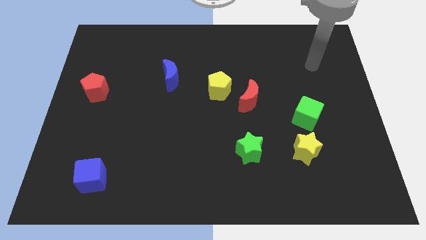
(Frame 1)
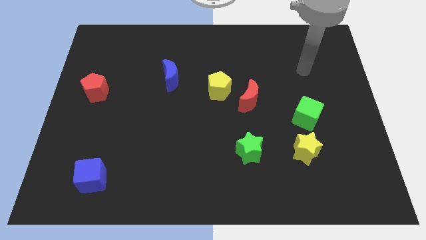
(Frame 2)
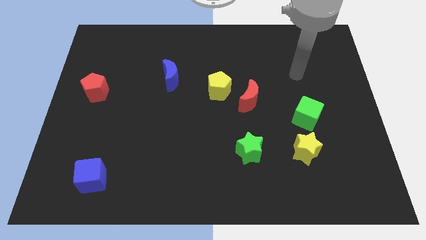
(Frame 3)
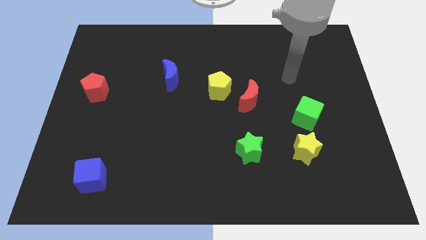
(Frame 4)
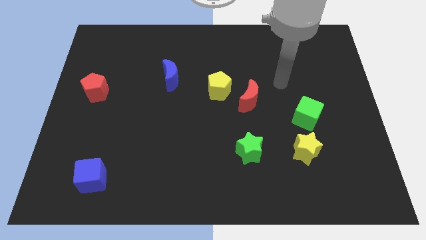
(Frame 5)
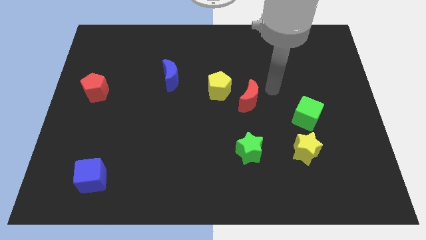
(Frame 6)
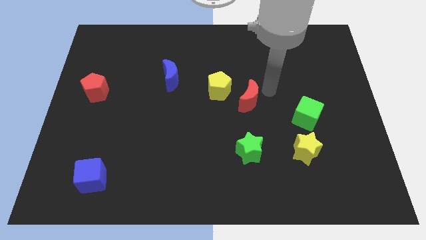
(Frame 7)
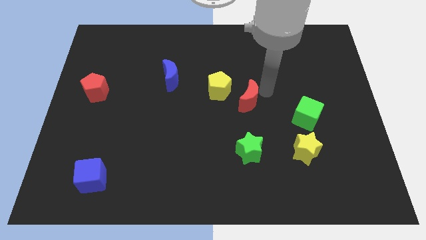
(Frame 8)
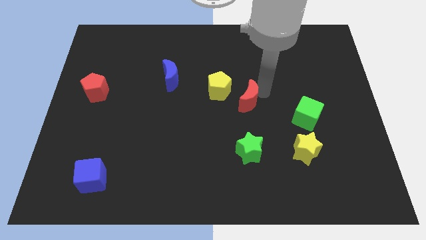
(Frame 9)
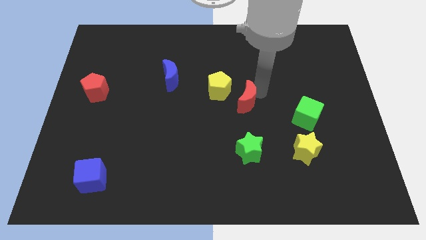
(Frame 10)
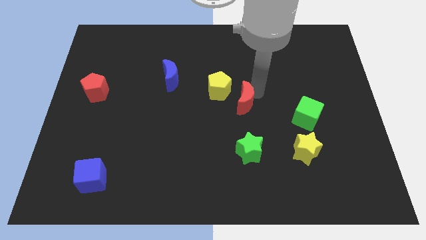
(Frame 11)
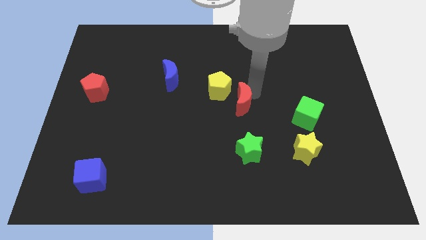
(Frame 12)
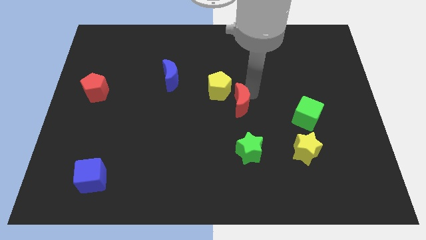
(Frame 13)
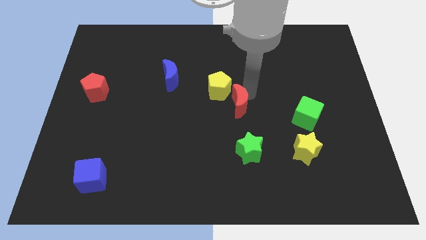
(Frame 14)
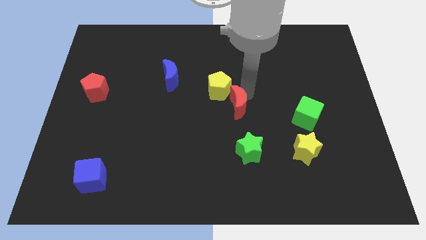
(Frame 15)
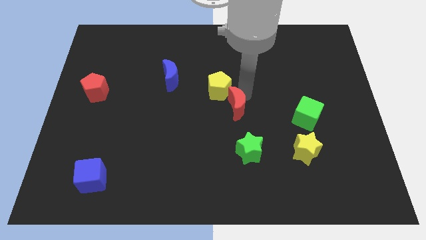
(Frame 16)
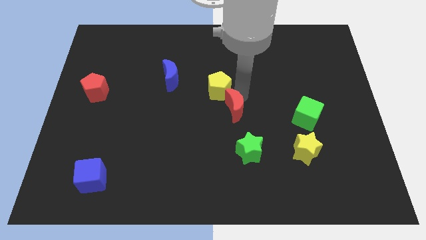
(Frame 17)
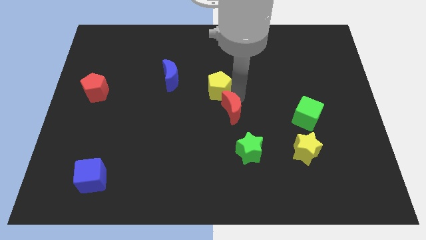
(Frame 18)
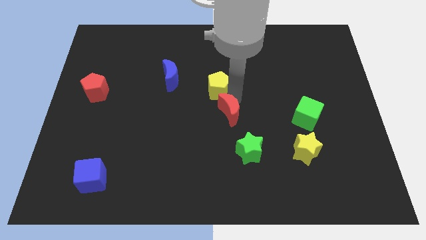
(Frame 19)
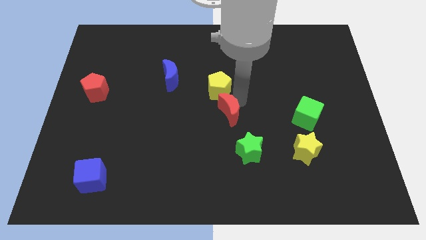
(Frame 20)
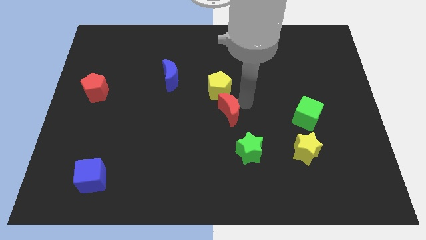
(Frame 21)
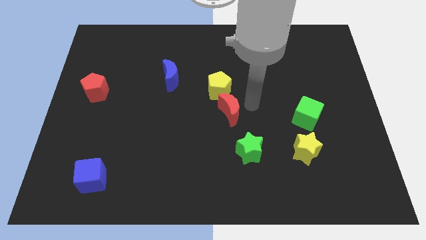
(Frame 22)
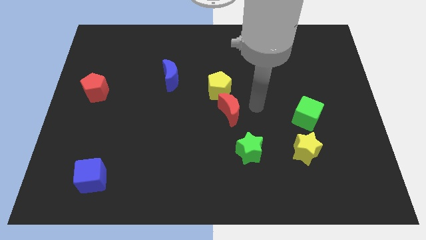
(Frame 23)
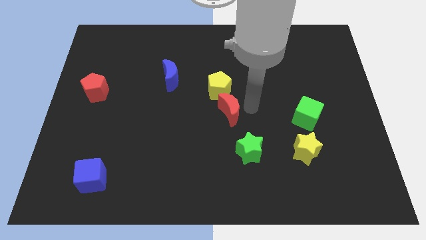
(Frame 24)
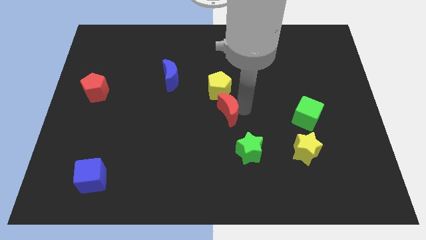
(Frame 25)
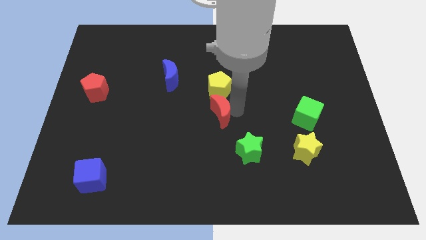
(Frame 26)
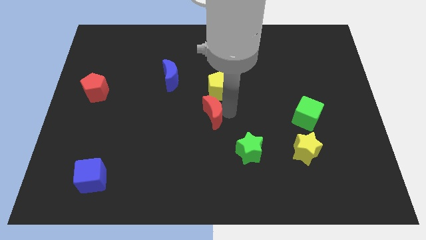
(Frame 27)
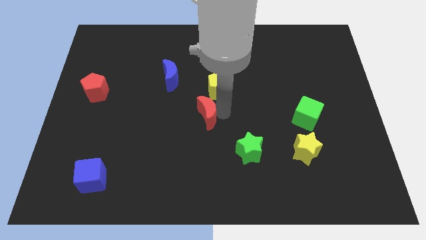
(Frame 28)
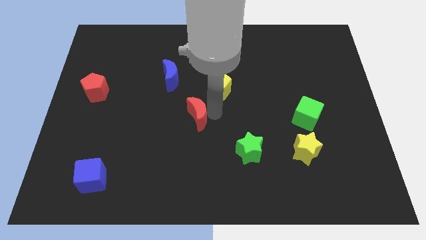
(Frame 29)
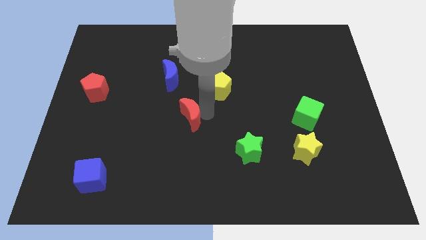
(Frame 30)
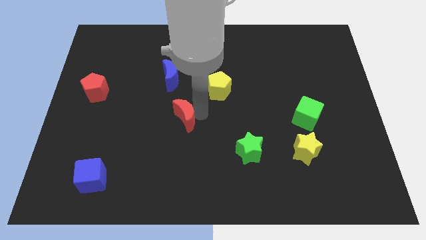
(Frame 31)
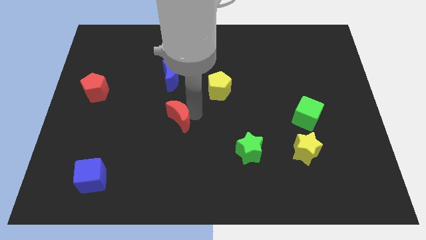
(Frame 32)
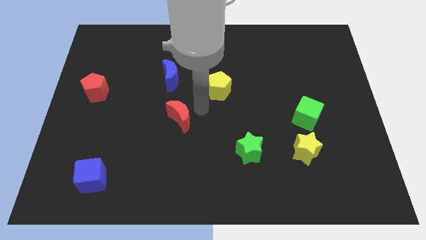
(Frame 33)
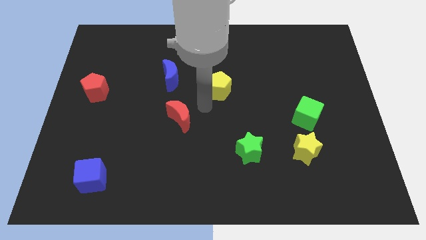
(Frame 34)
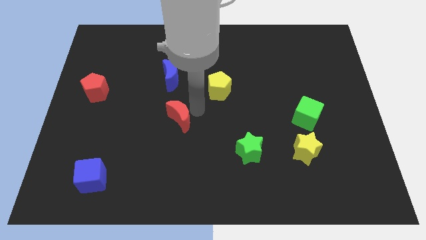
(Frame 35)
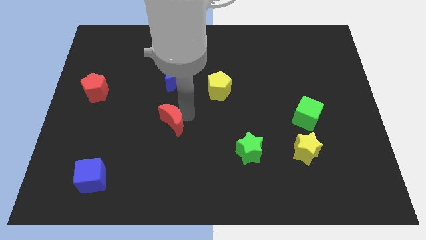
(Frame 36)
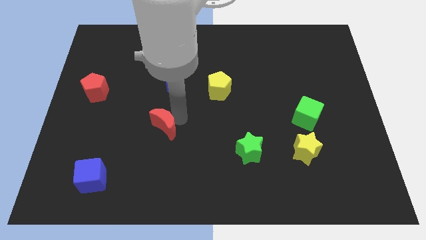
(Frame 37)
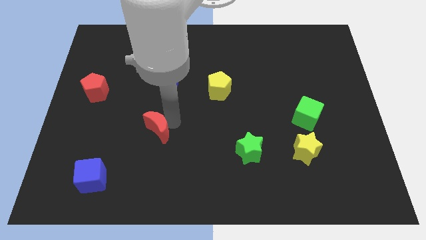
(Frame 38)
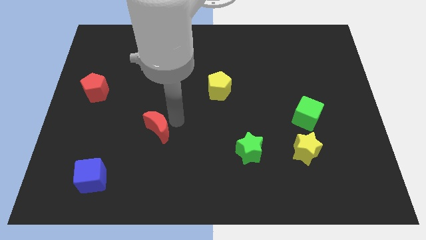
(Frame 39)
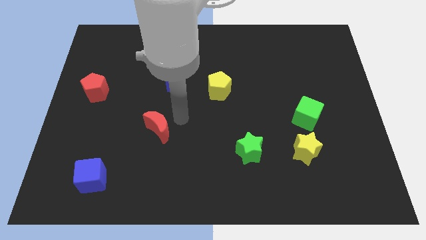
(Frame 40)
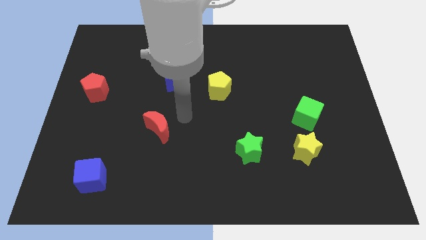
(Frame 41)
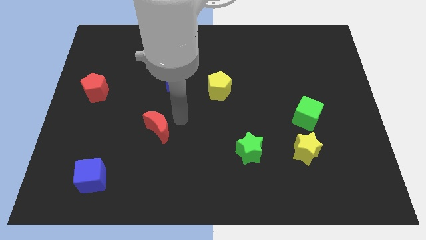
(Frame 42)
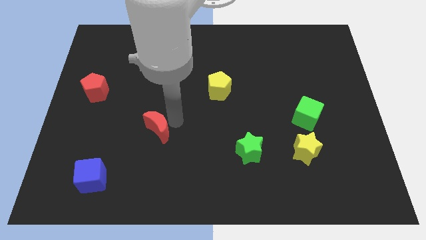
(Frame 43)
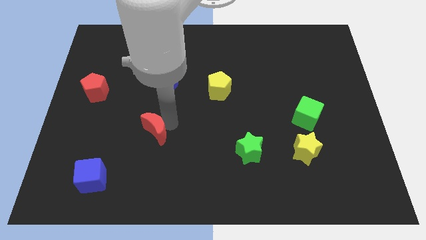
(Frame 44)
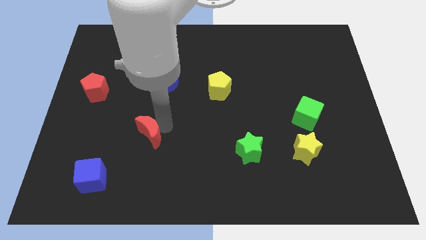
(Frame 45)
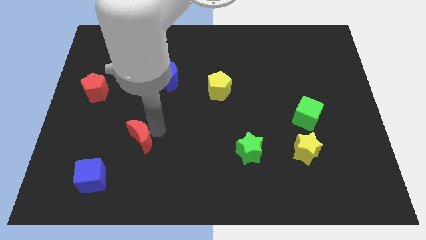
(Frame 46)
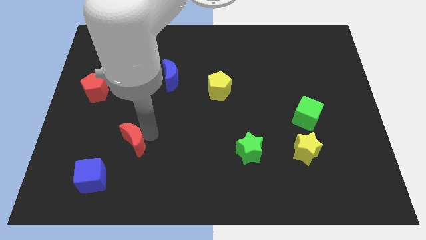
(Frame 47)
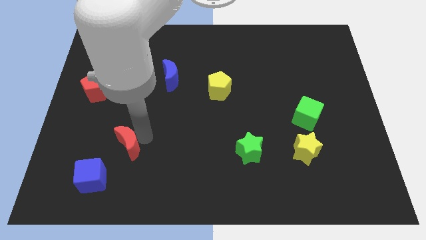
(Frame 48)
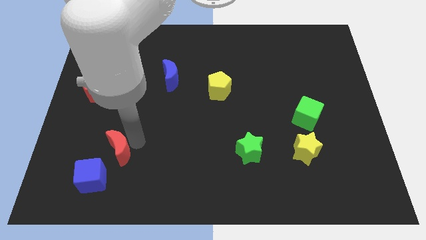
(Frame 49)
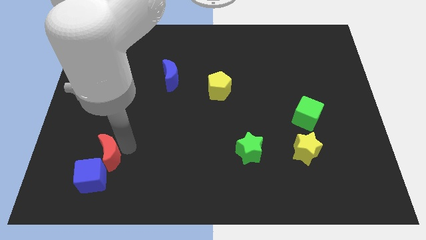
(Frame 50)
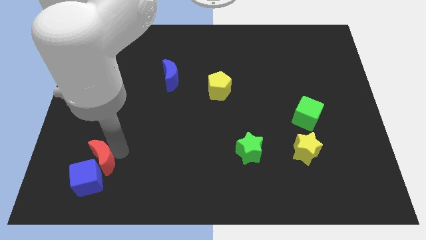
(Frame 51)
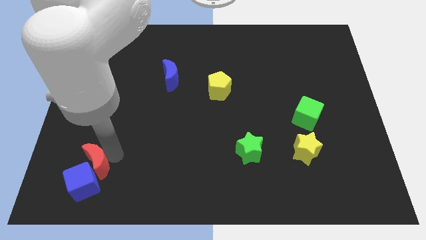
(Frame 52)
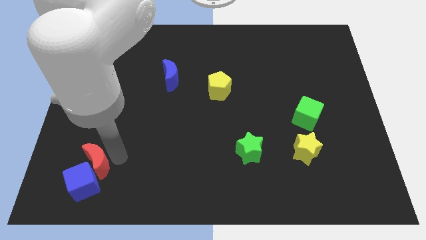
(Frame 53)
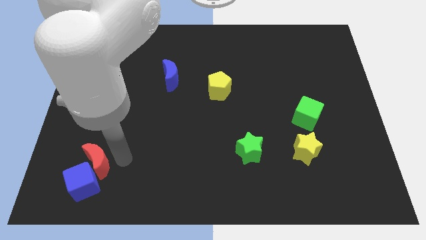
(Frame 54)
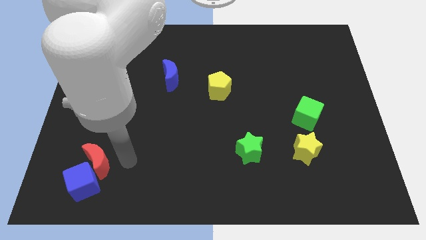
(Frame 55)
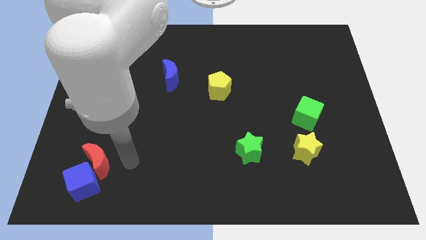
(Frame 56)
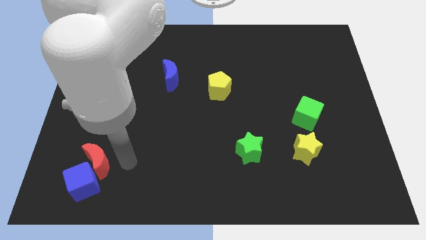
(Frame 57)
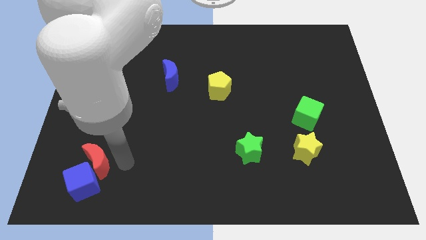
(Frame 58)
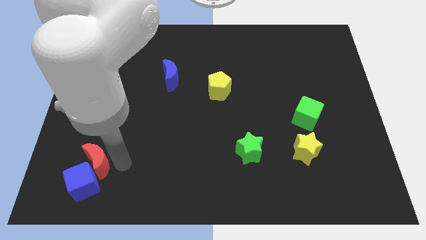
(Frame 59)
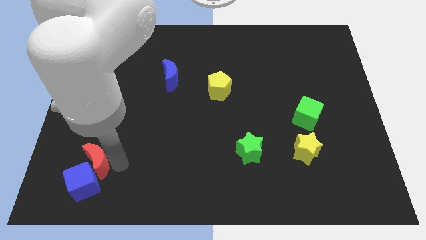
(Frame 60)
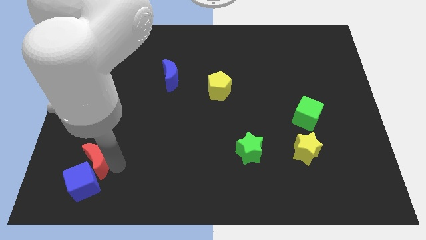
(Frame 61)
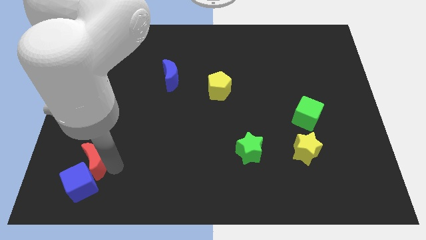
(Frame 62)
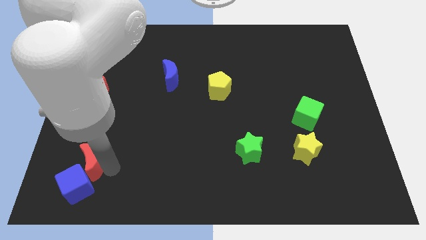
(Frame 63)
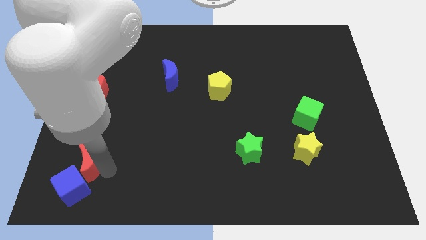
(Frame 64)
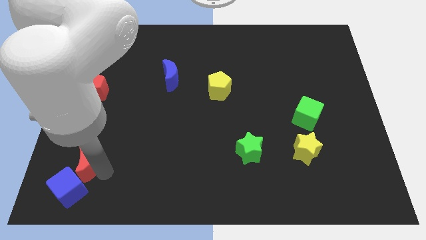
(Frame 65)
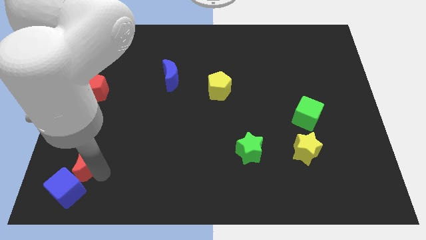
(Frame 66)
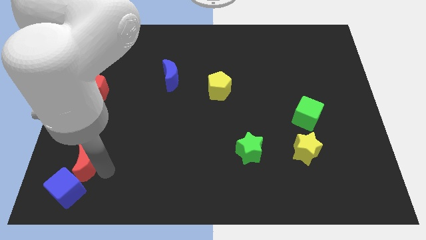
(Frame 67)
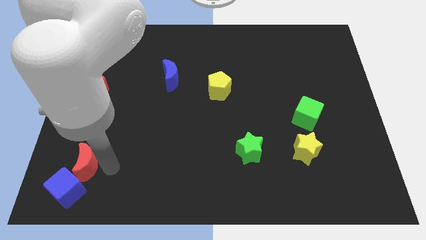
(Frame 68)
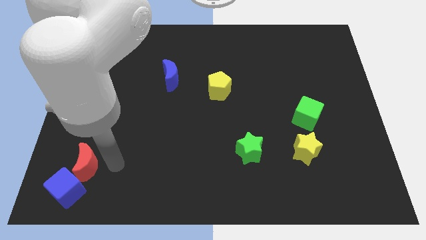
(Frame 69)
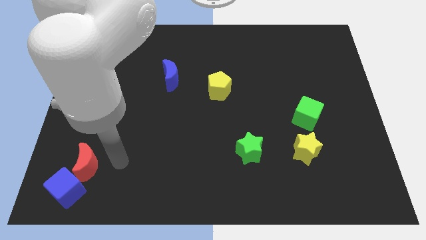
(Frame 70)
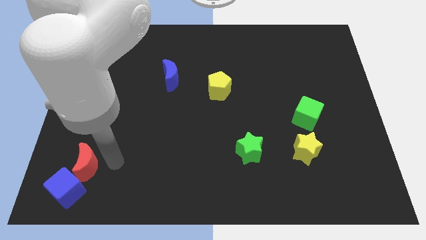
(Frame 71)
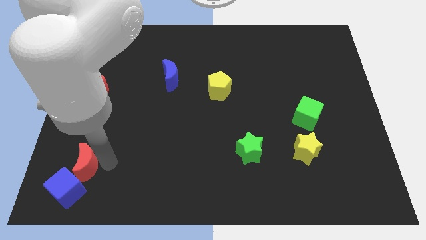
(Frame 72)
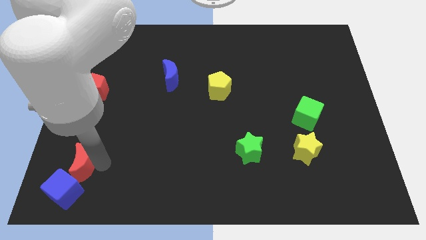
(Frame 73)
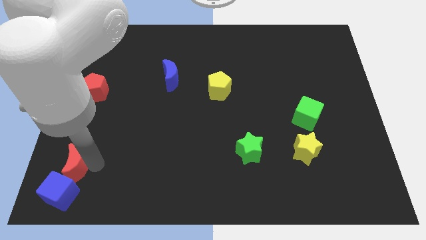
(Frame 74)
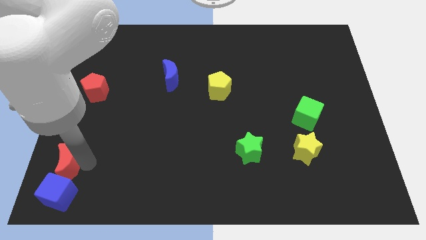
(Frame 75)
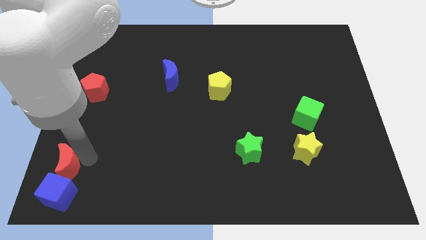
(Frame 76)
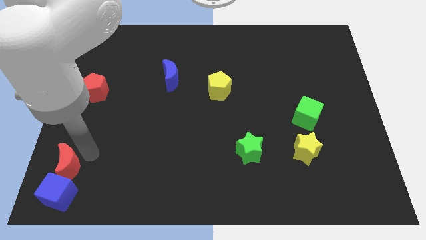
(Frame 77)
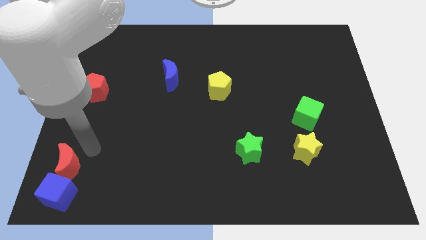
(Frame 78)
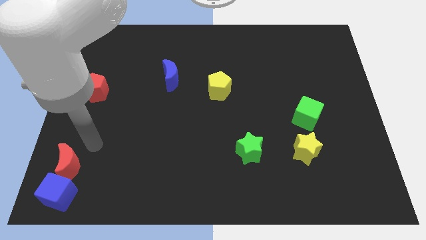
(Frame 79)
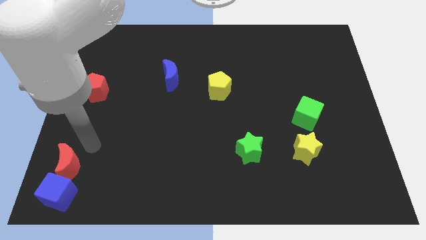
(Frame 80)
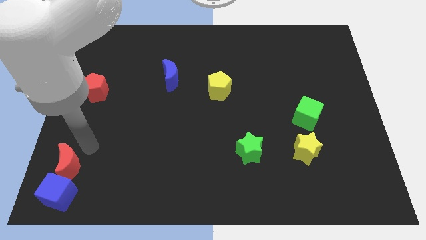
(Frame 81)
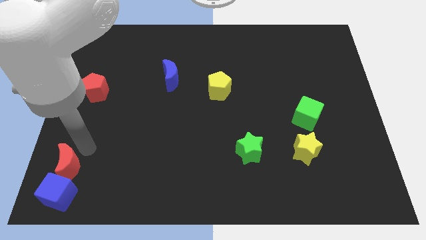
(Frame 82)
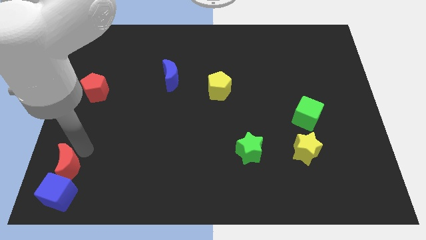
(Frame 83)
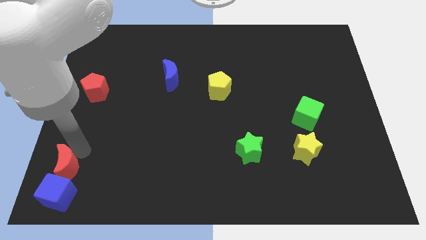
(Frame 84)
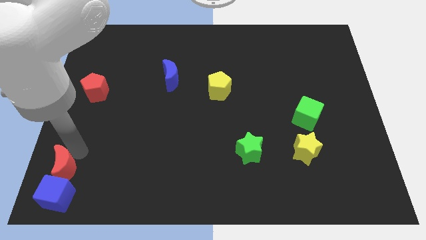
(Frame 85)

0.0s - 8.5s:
push the red moon to the lower left corner
